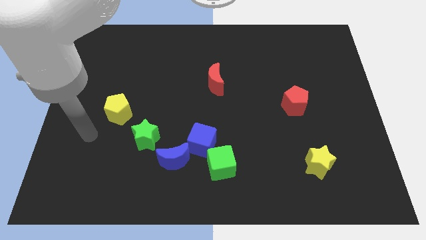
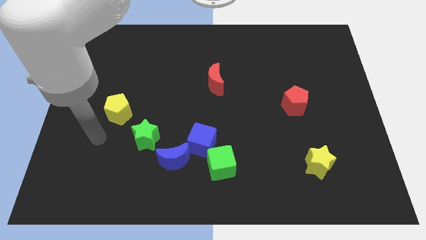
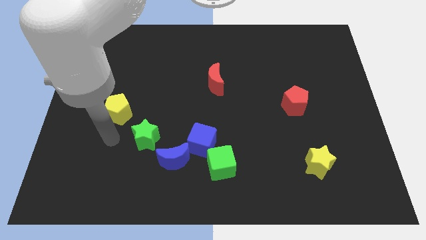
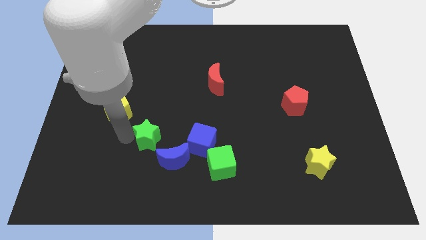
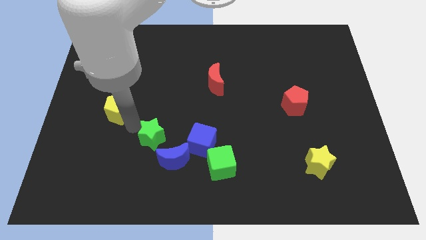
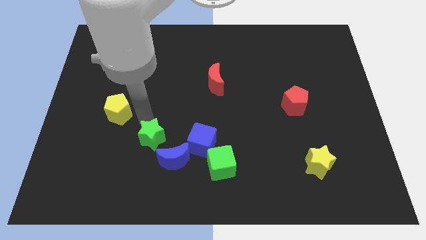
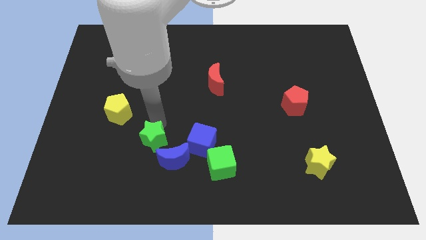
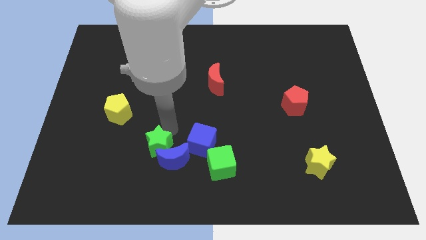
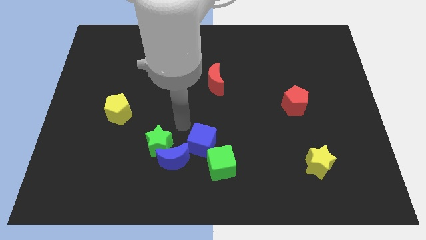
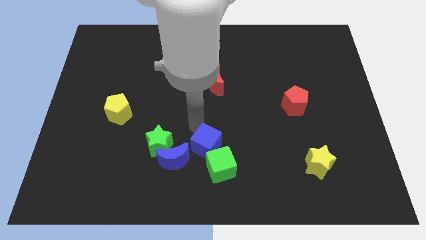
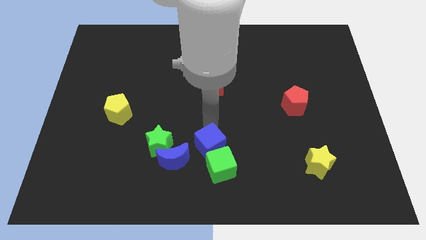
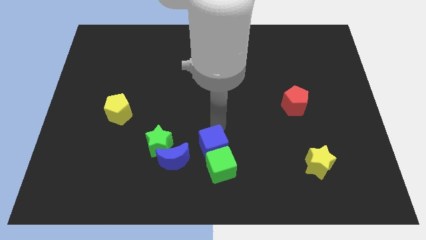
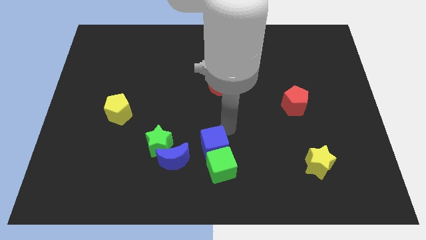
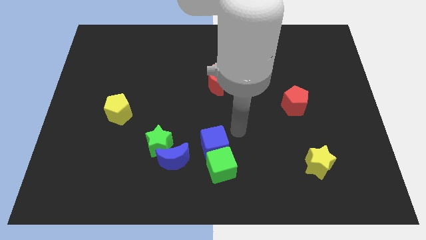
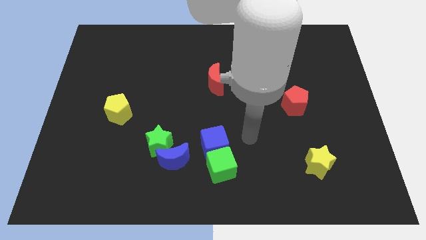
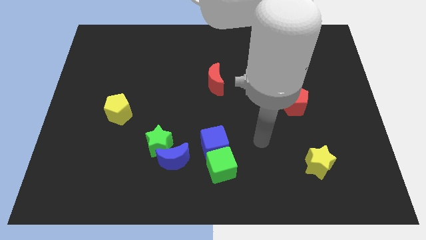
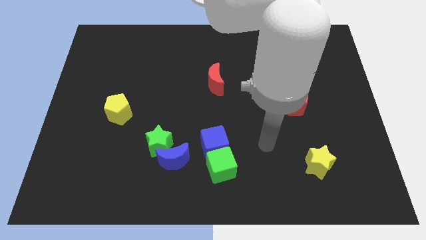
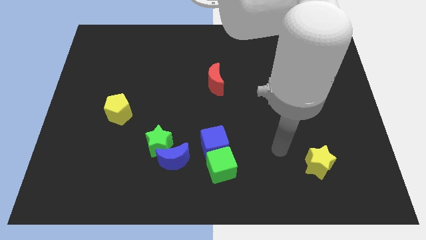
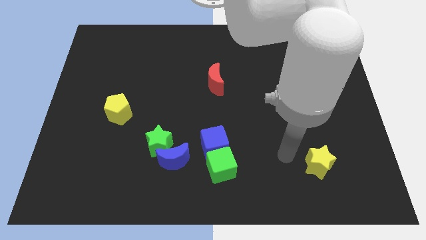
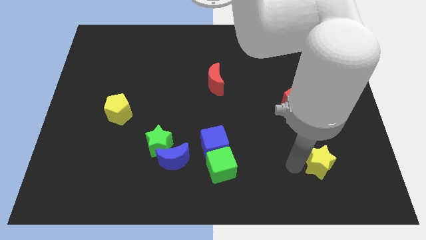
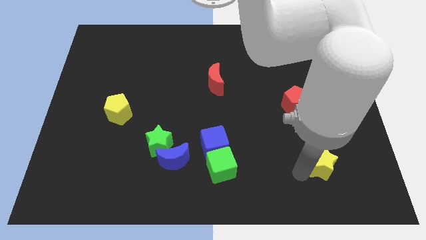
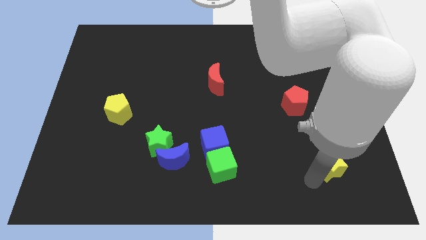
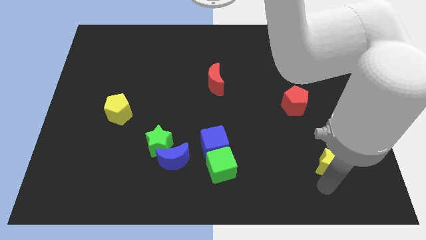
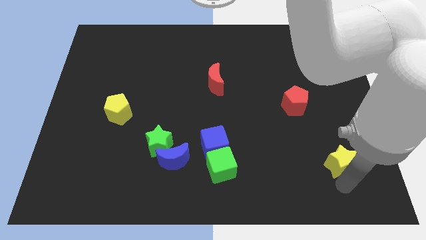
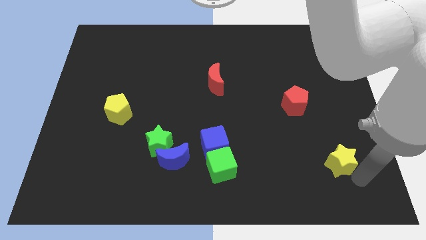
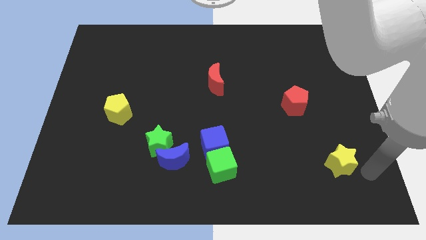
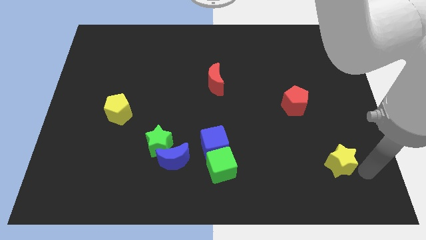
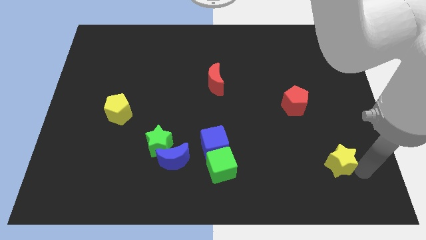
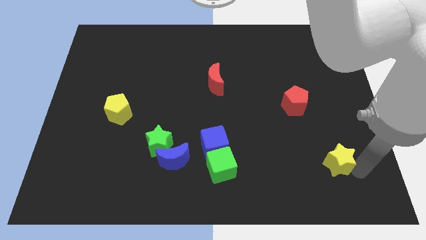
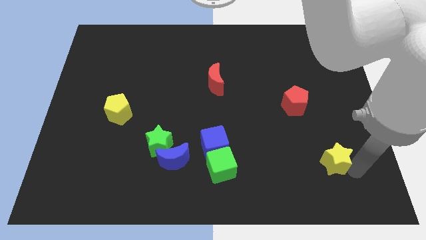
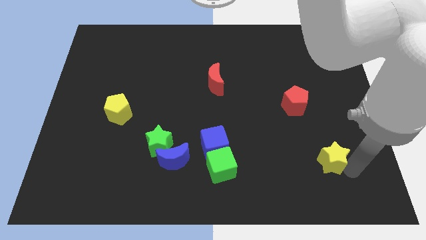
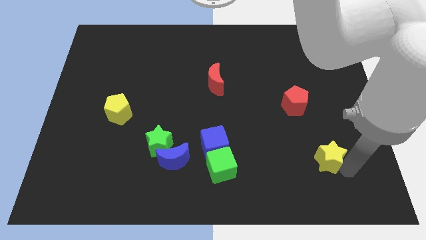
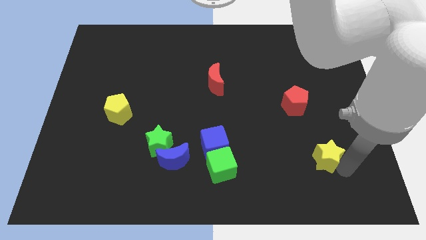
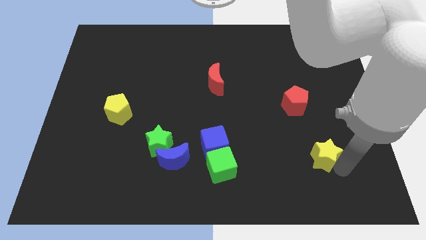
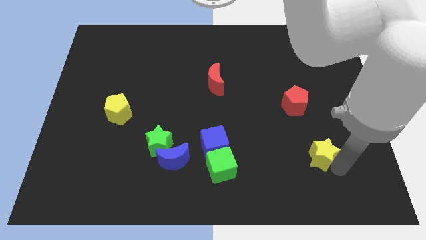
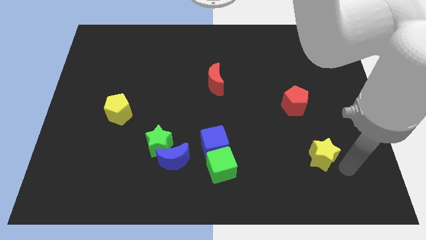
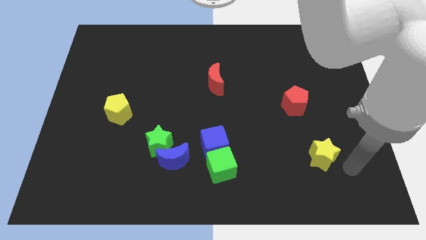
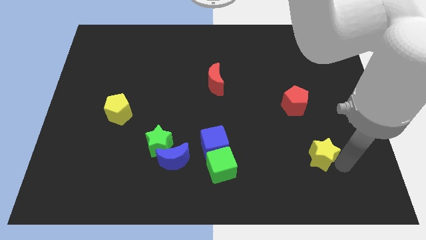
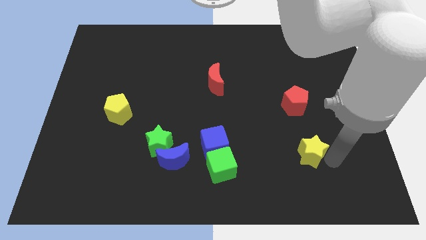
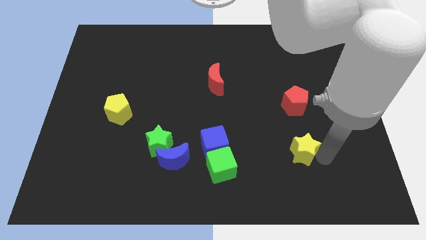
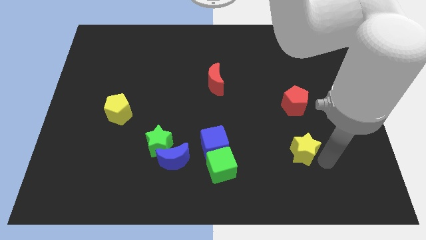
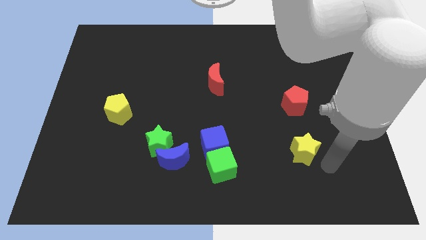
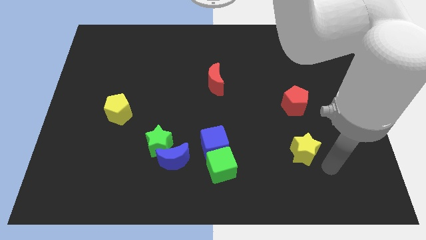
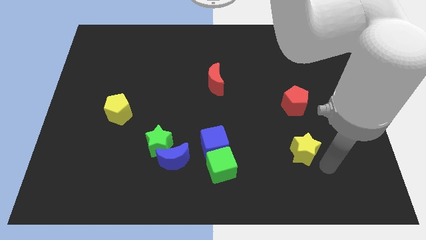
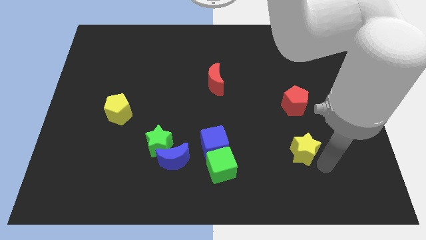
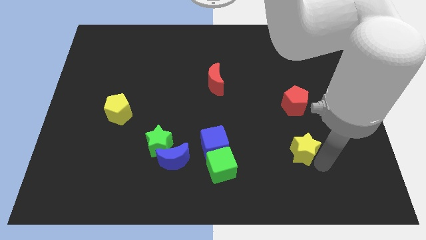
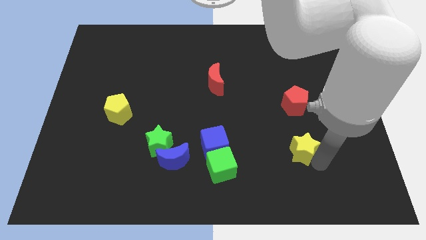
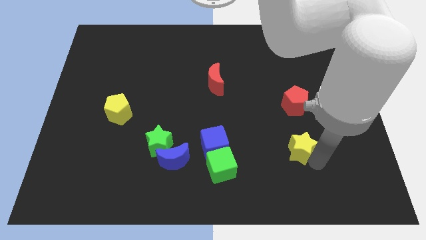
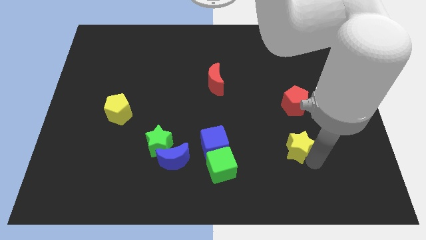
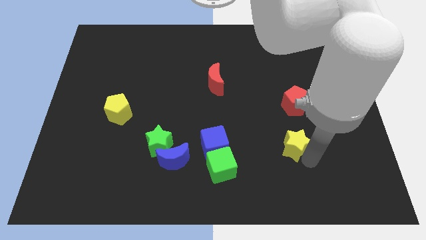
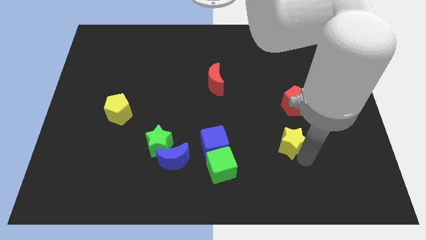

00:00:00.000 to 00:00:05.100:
move the yellow star a bit up and then to the left

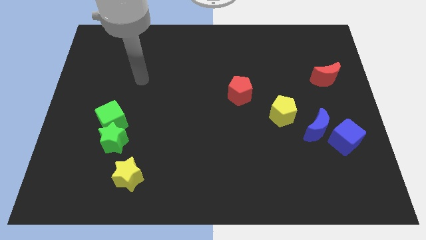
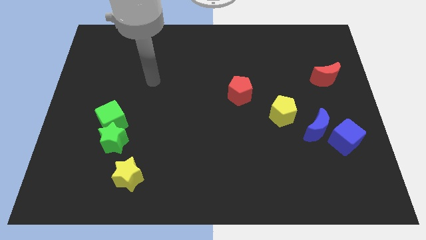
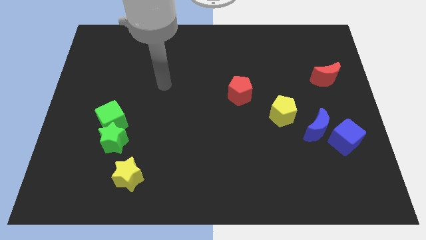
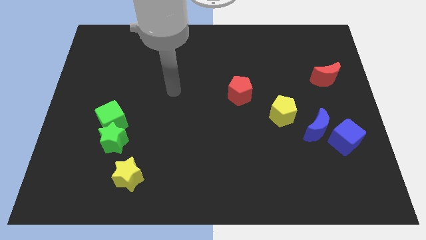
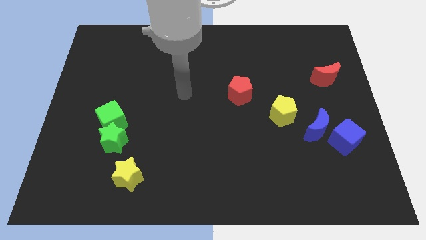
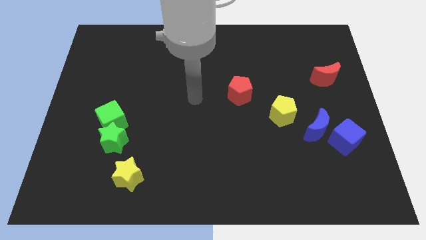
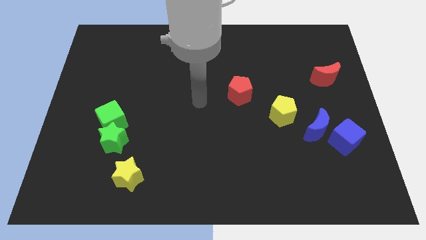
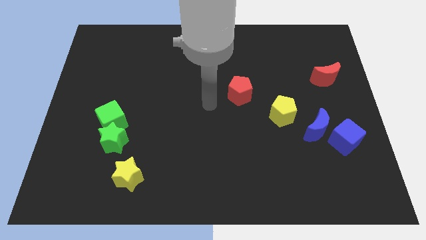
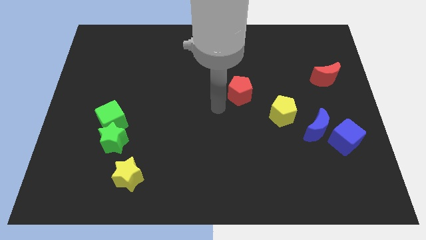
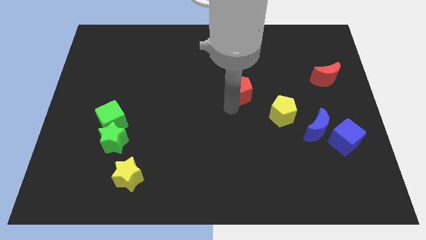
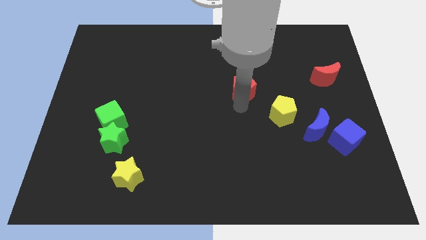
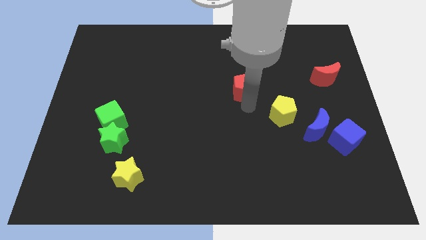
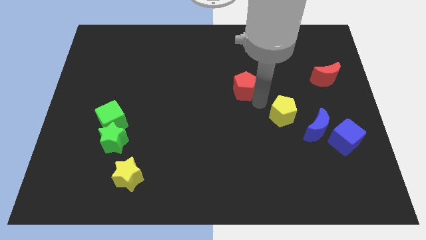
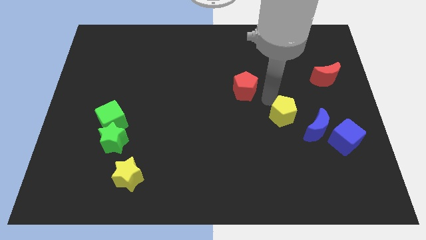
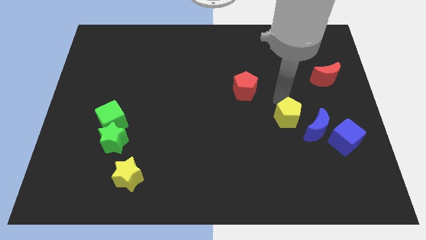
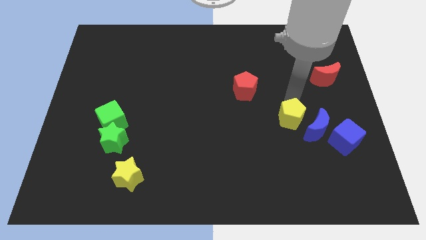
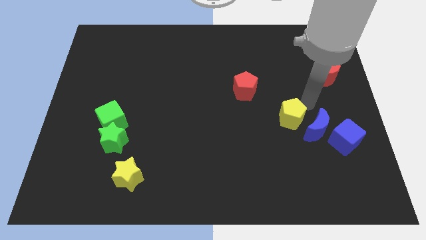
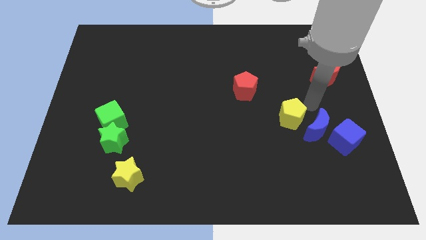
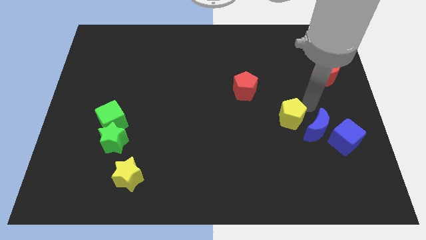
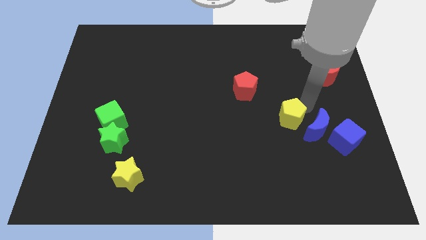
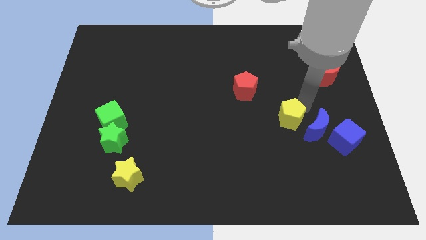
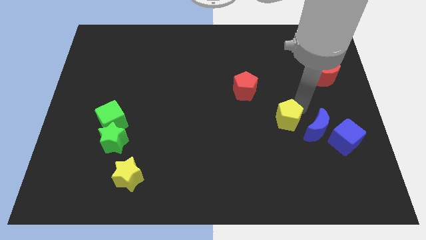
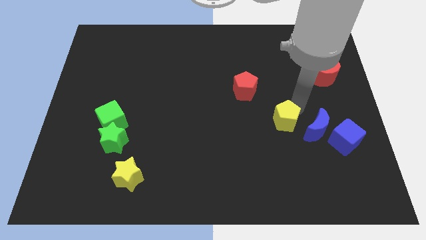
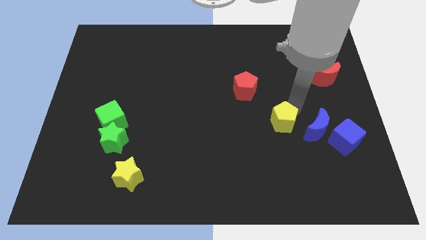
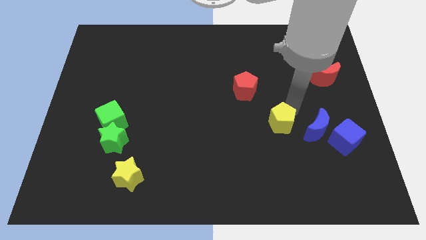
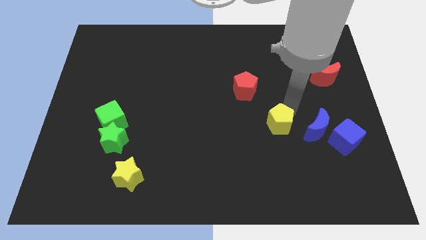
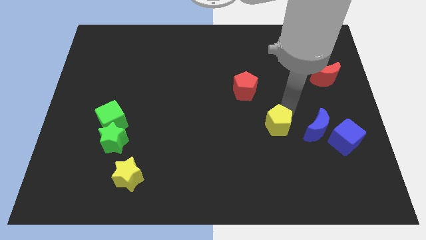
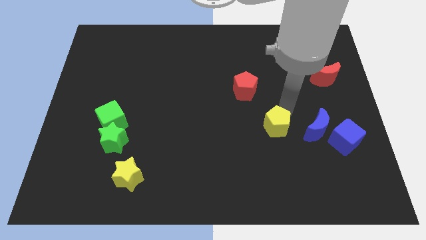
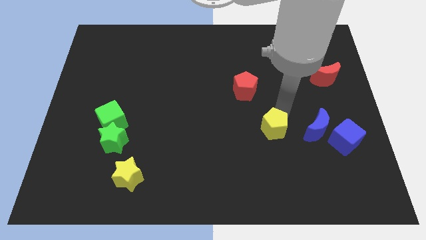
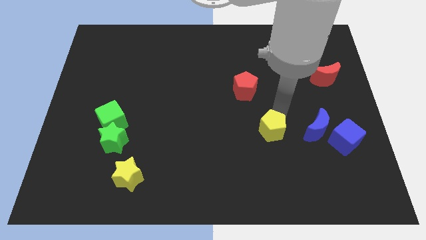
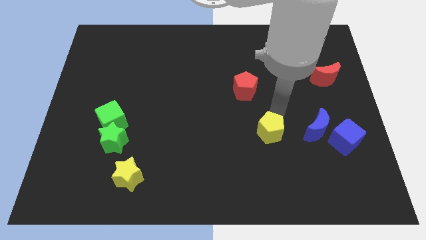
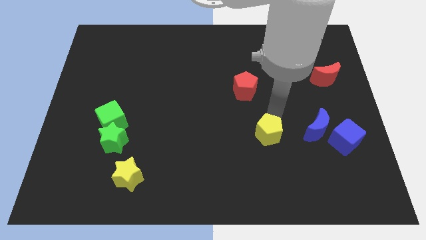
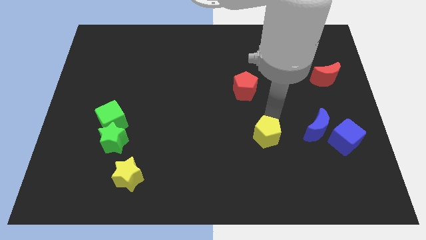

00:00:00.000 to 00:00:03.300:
move the yellow pentagon diagonally downwards and to the left somewhat
